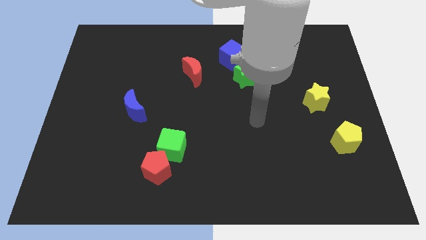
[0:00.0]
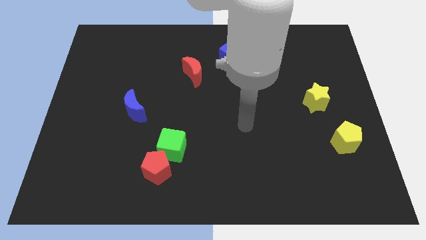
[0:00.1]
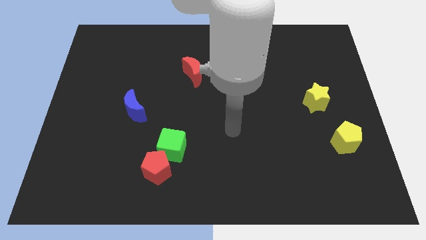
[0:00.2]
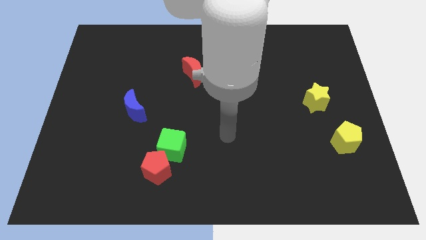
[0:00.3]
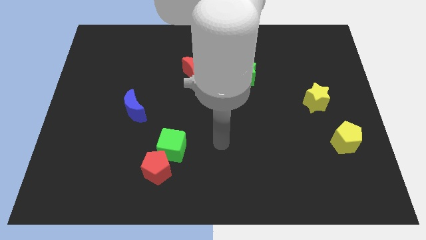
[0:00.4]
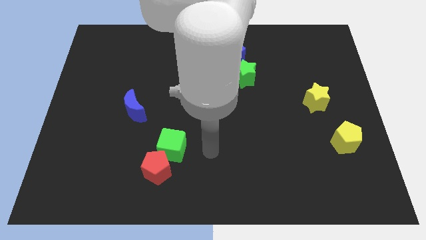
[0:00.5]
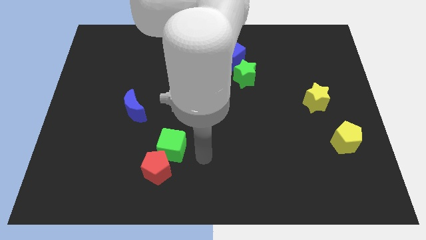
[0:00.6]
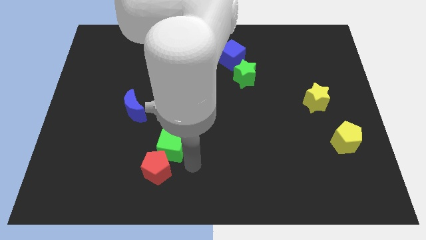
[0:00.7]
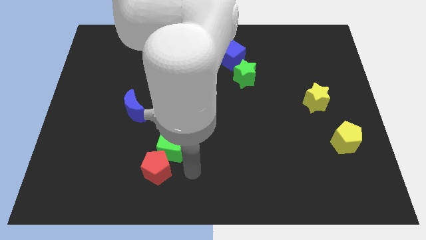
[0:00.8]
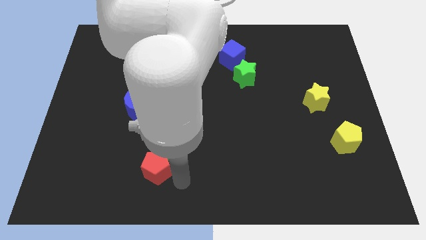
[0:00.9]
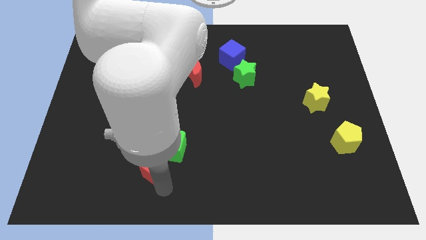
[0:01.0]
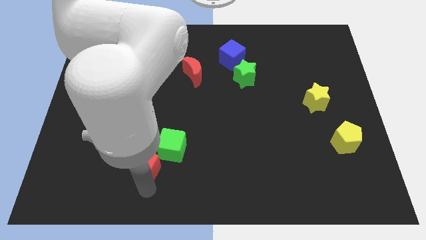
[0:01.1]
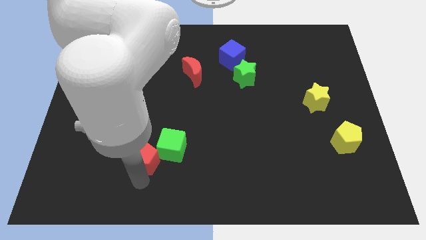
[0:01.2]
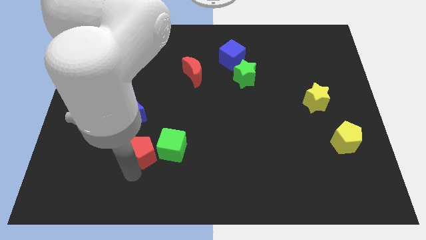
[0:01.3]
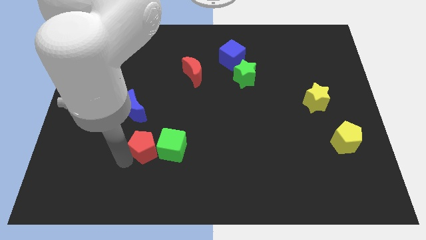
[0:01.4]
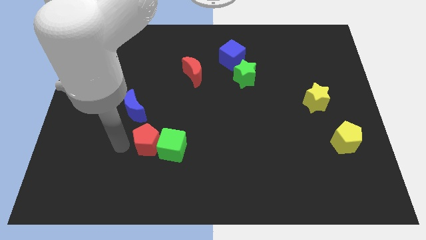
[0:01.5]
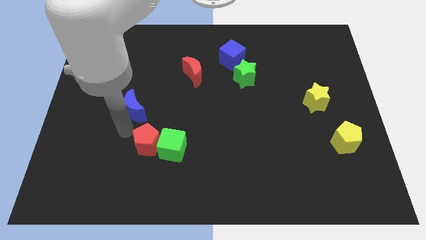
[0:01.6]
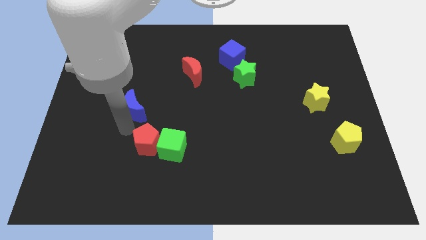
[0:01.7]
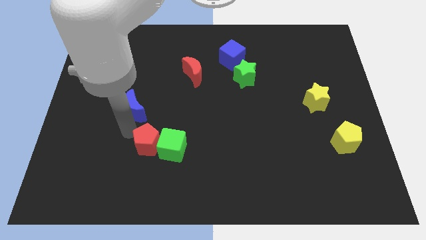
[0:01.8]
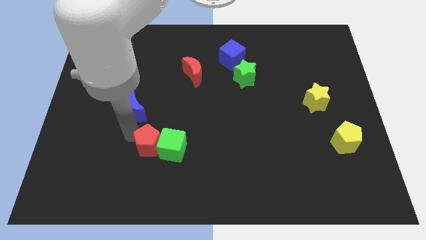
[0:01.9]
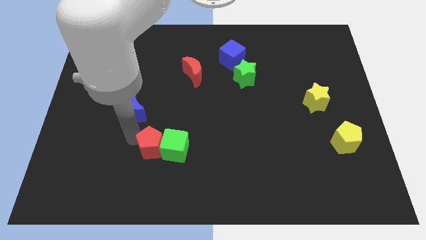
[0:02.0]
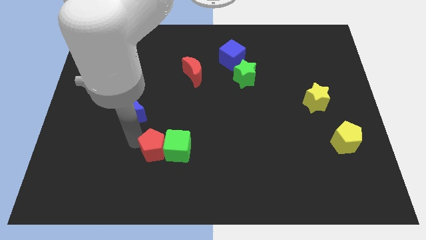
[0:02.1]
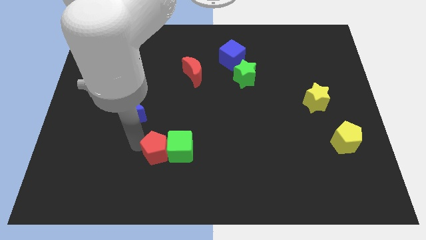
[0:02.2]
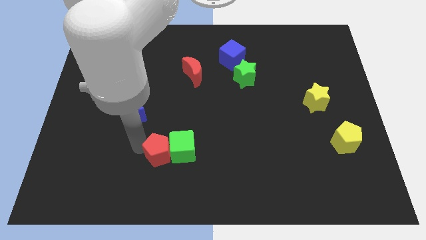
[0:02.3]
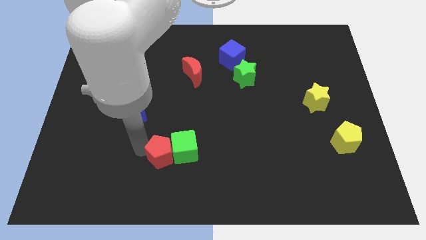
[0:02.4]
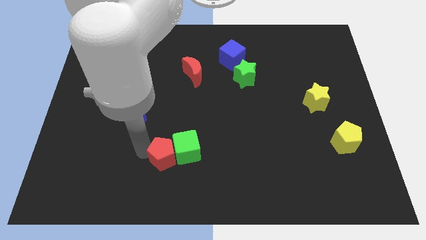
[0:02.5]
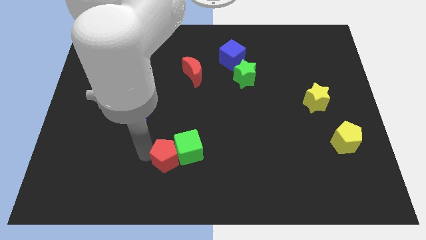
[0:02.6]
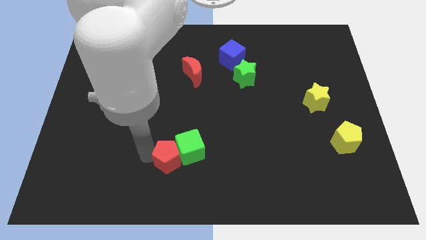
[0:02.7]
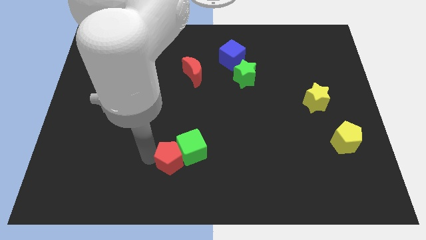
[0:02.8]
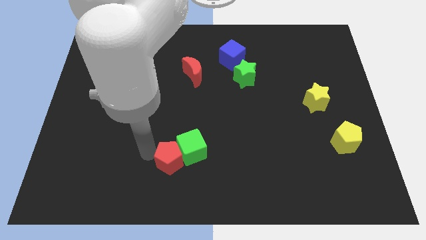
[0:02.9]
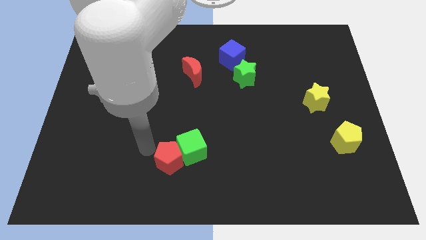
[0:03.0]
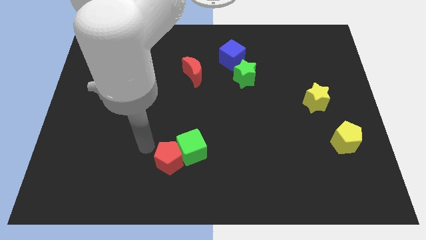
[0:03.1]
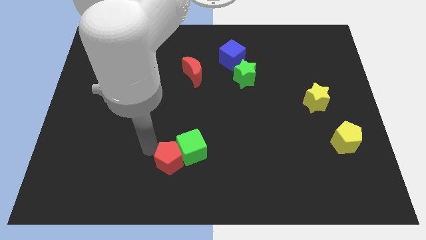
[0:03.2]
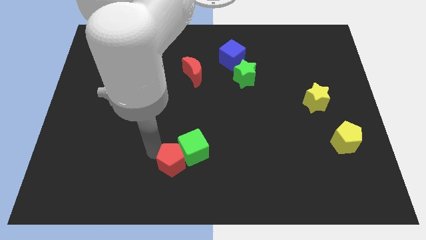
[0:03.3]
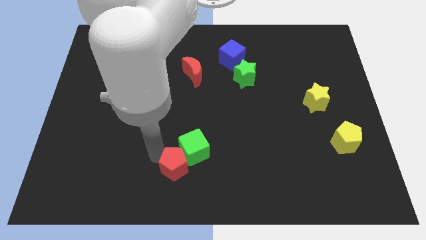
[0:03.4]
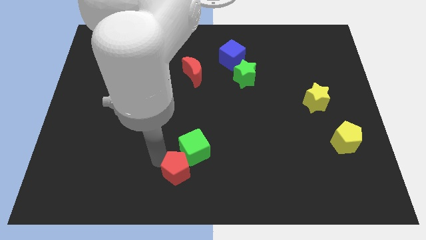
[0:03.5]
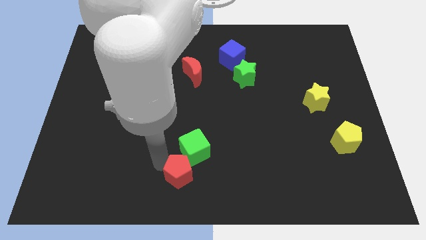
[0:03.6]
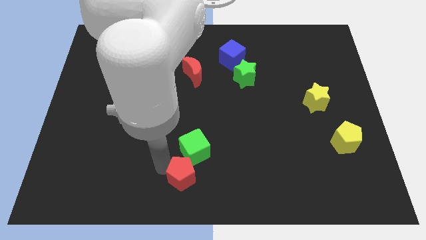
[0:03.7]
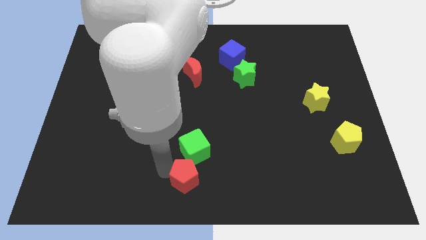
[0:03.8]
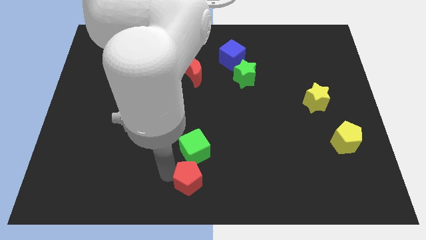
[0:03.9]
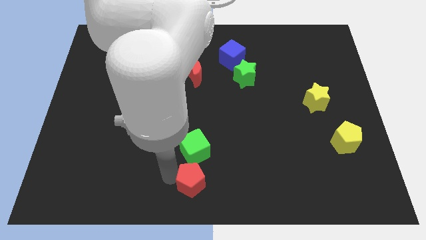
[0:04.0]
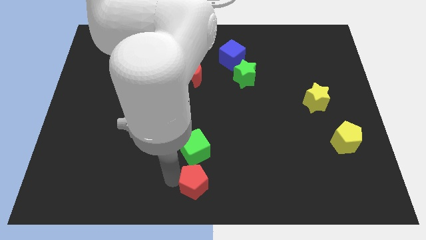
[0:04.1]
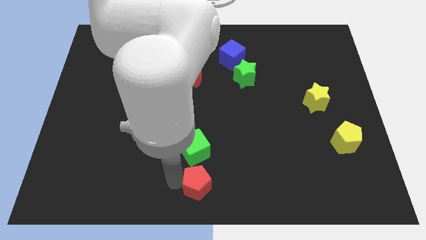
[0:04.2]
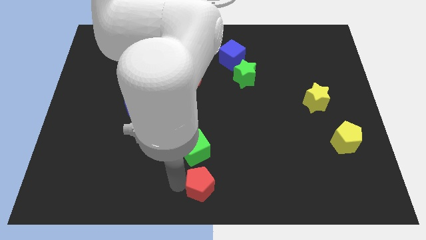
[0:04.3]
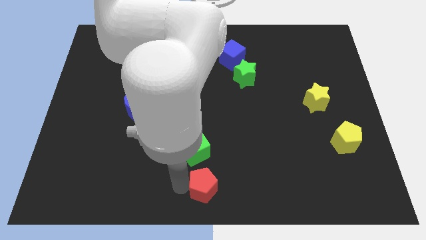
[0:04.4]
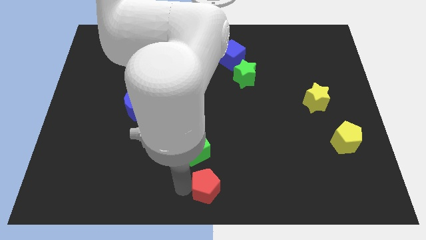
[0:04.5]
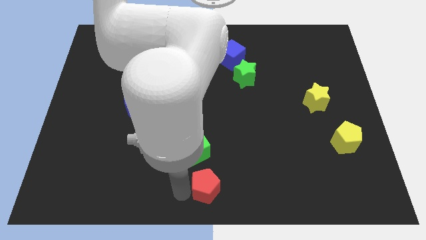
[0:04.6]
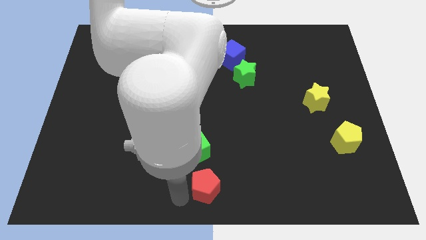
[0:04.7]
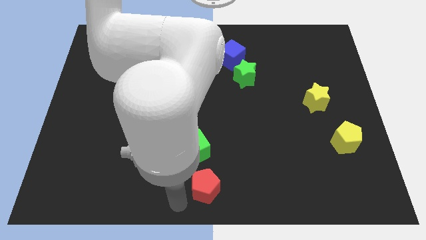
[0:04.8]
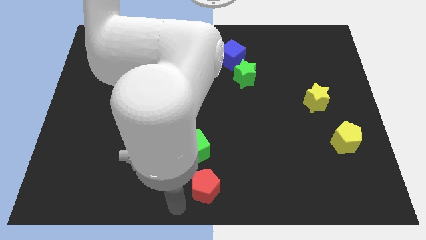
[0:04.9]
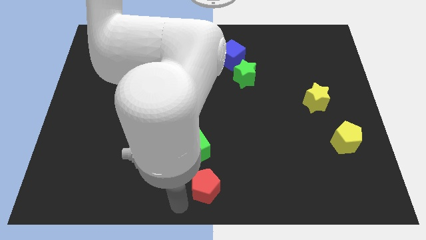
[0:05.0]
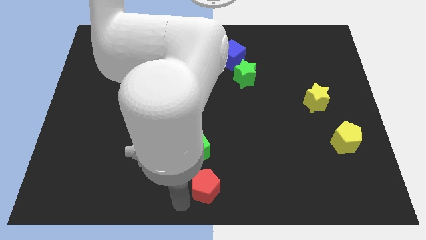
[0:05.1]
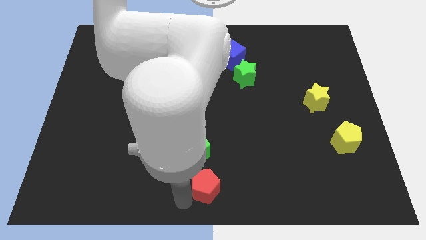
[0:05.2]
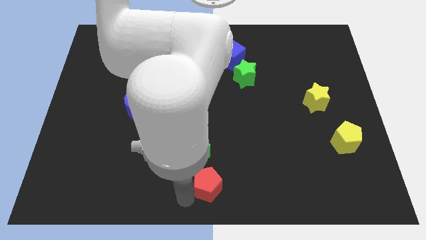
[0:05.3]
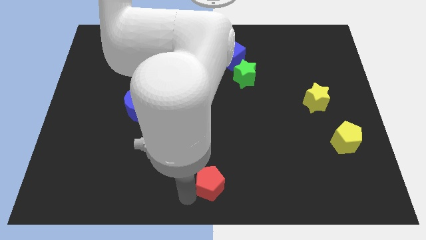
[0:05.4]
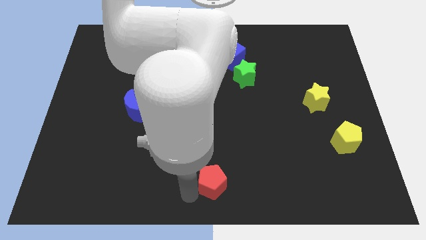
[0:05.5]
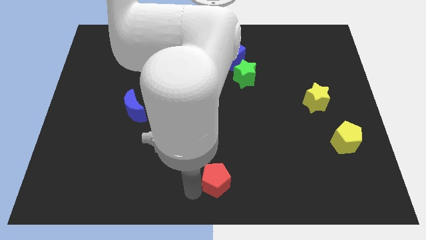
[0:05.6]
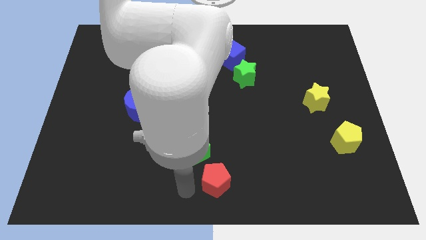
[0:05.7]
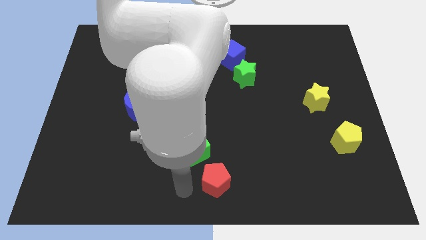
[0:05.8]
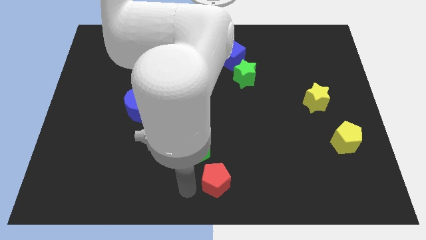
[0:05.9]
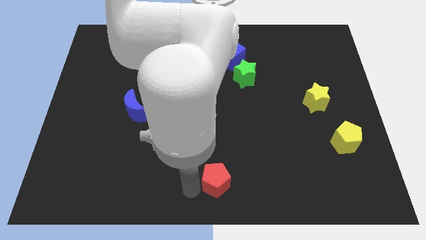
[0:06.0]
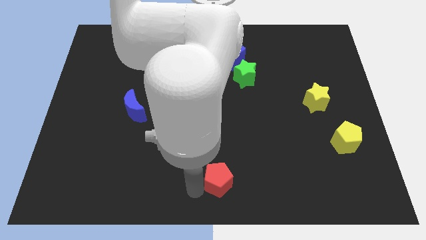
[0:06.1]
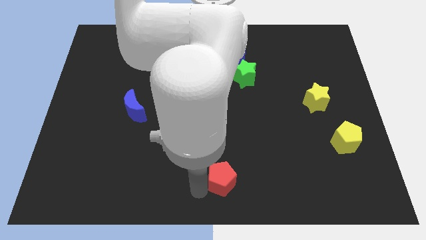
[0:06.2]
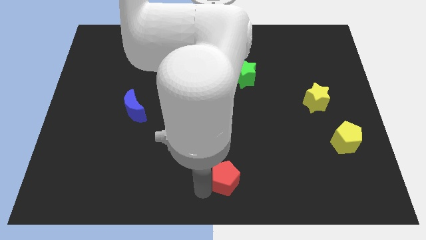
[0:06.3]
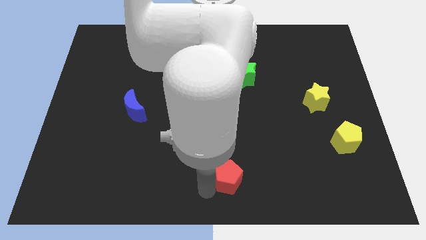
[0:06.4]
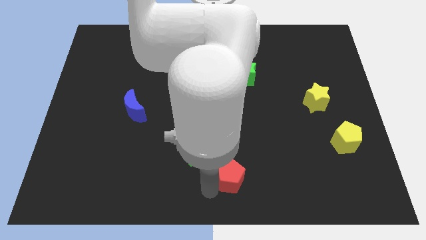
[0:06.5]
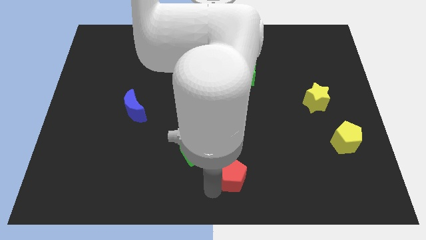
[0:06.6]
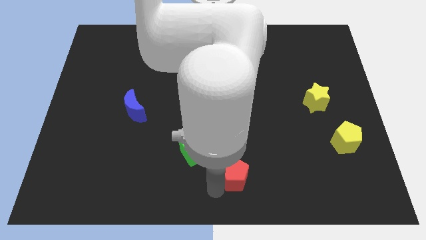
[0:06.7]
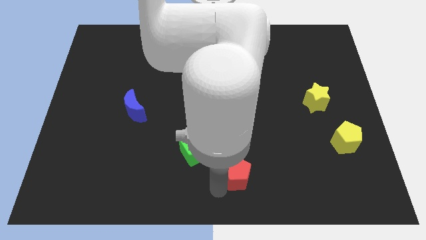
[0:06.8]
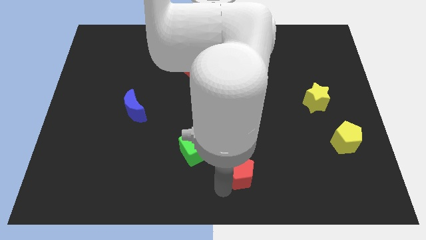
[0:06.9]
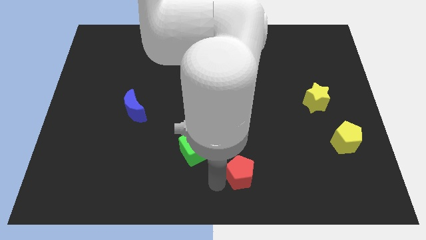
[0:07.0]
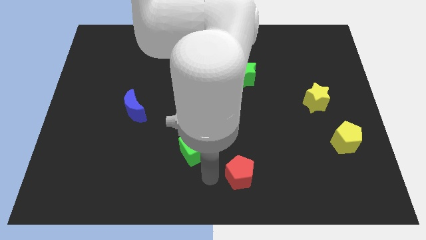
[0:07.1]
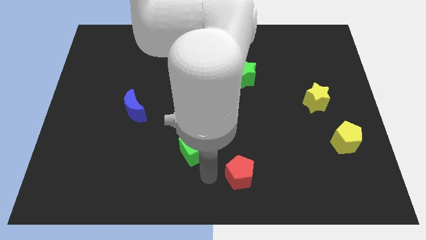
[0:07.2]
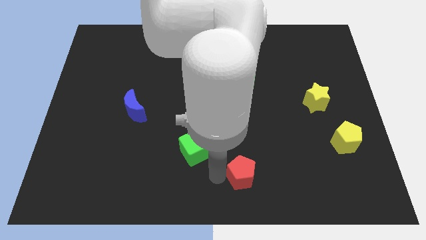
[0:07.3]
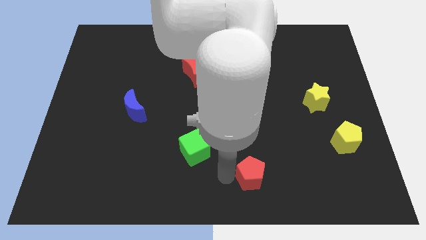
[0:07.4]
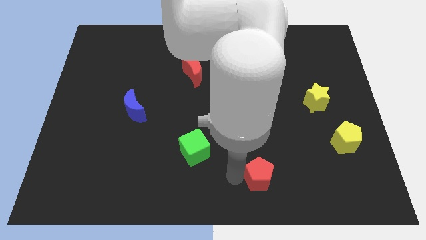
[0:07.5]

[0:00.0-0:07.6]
push the red pentagon right
